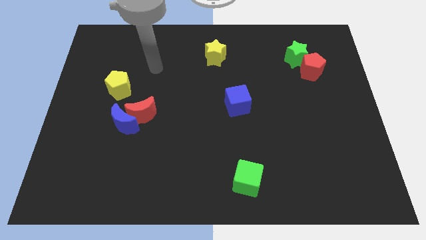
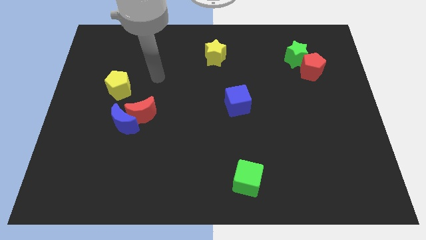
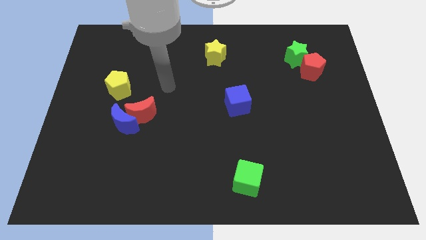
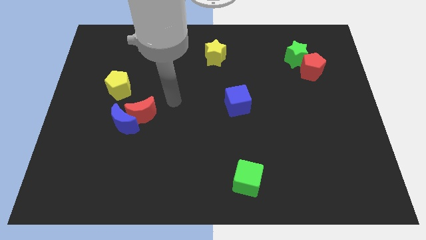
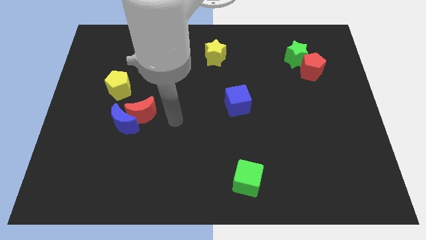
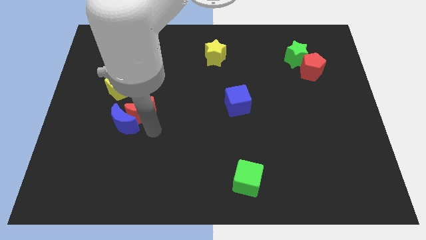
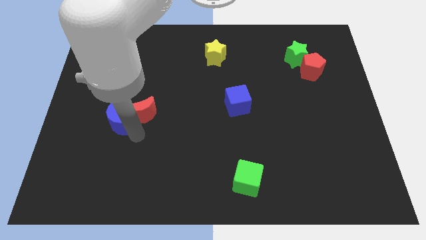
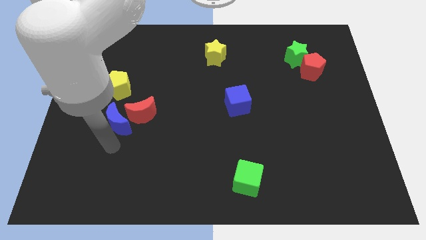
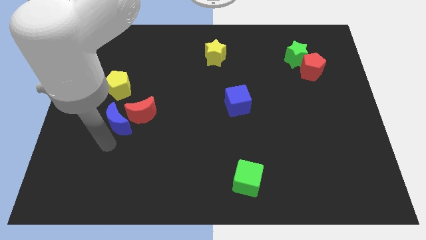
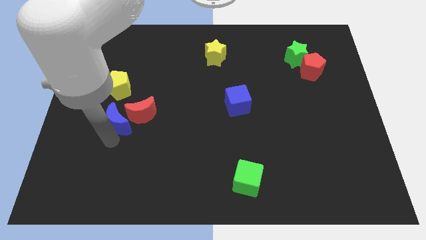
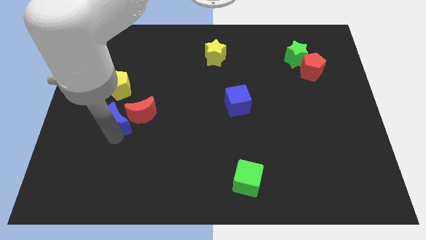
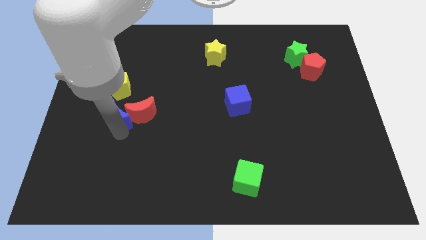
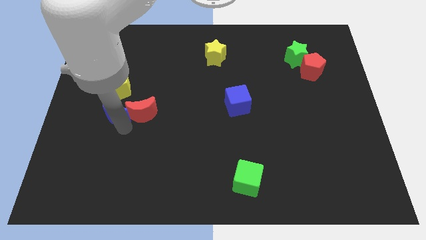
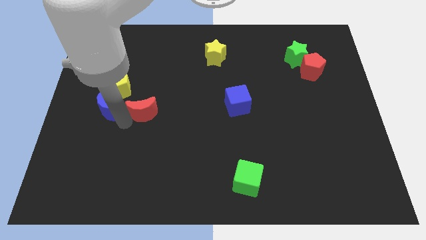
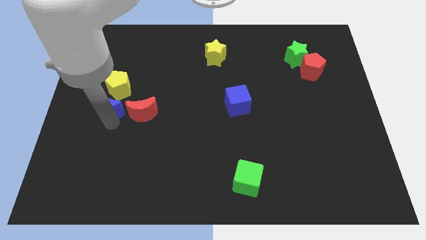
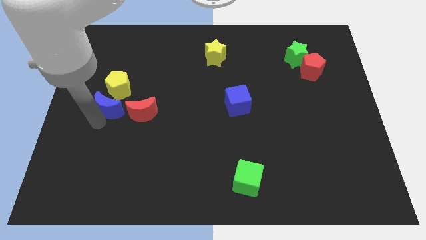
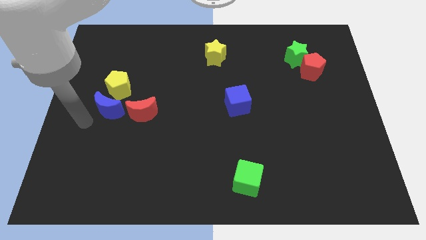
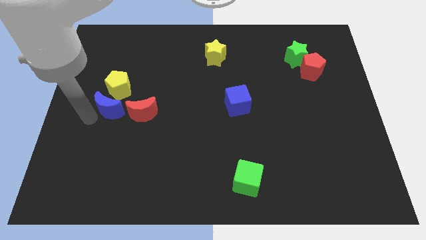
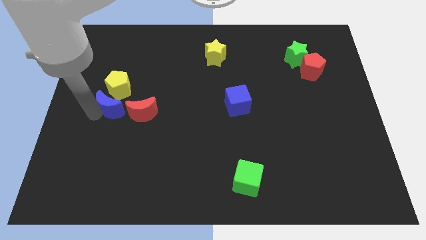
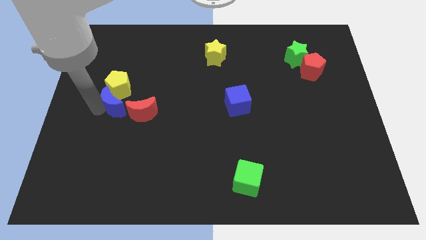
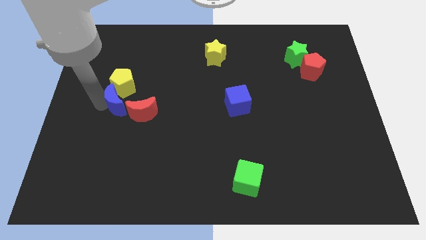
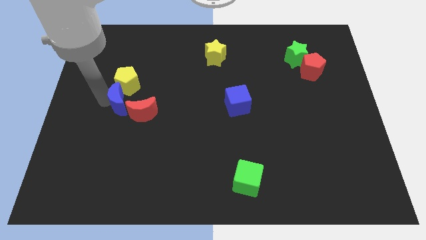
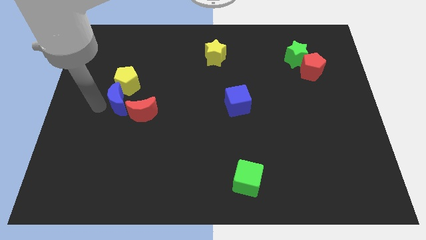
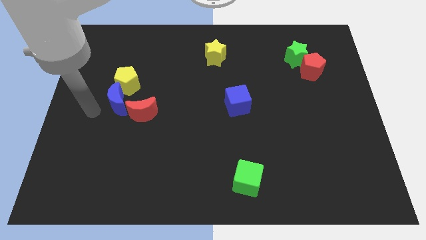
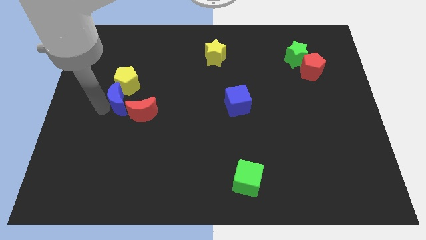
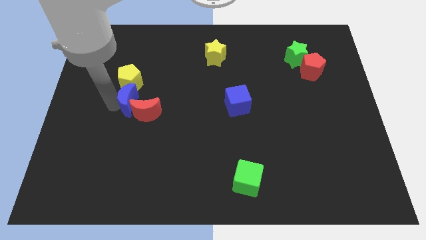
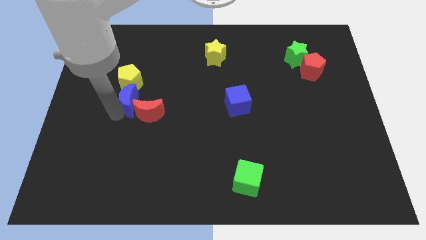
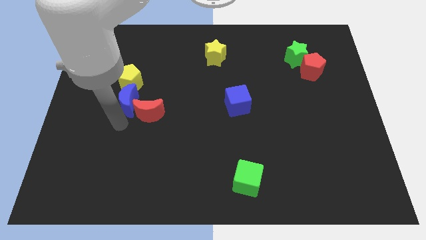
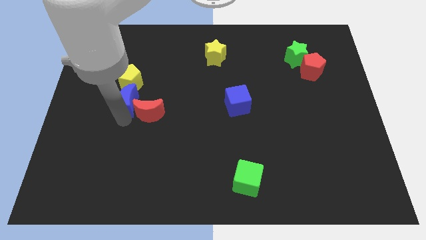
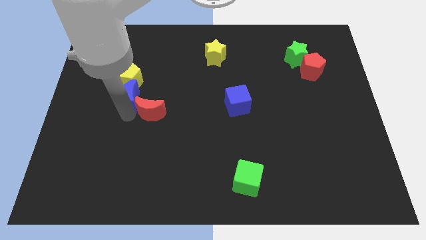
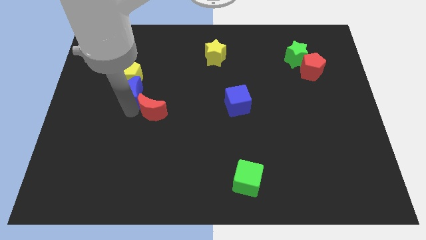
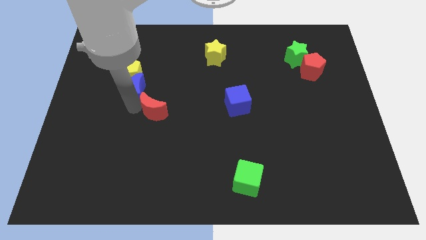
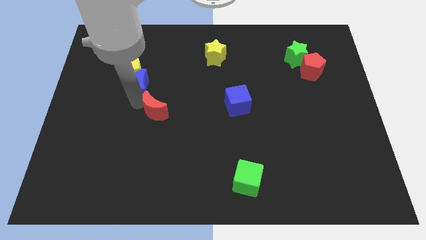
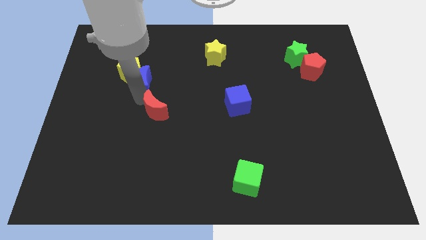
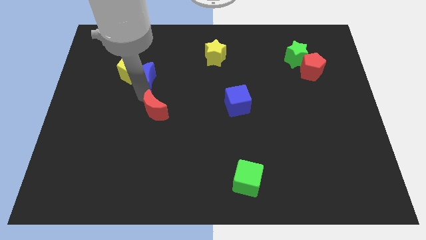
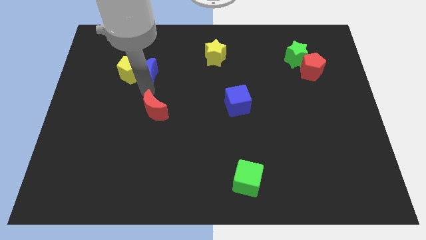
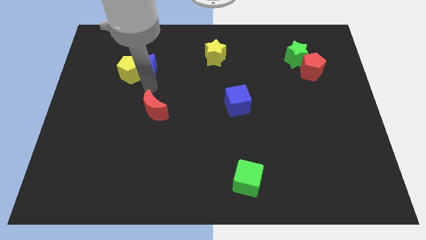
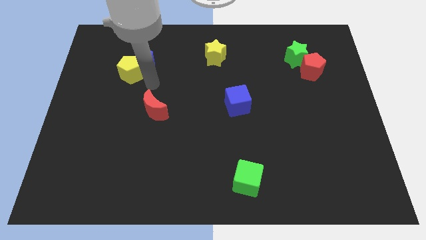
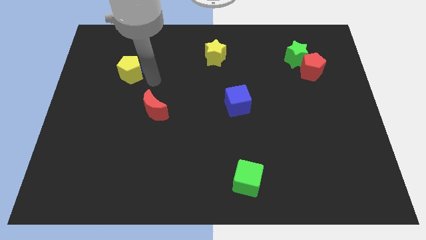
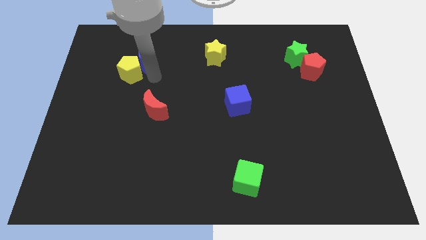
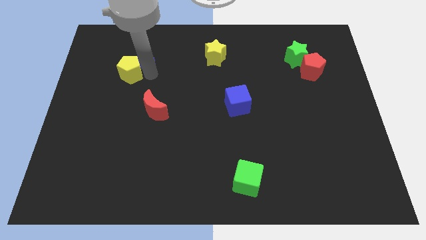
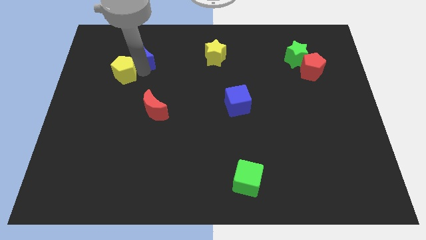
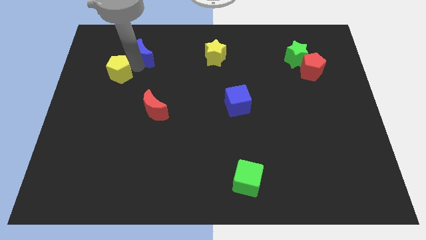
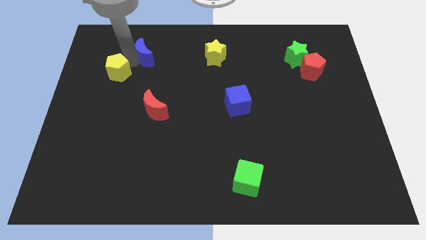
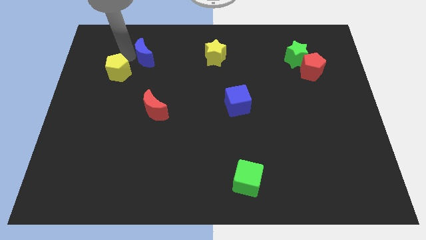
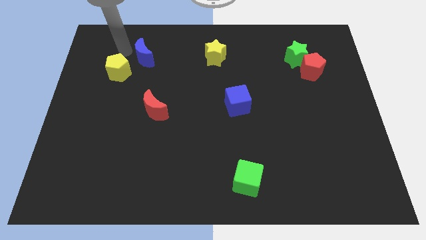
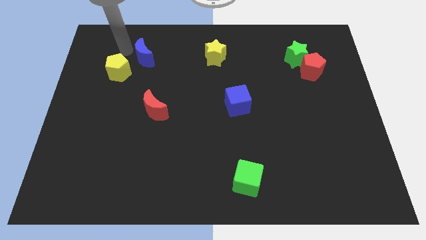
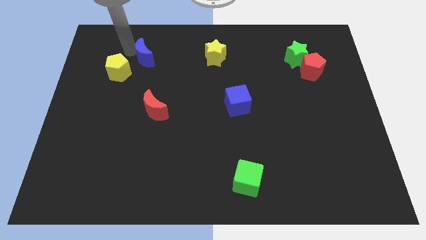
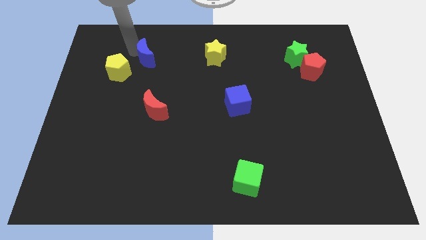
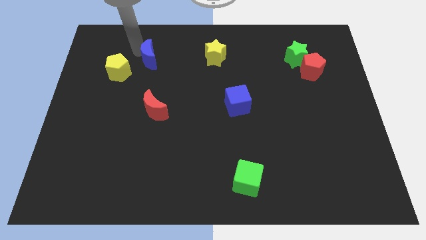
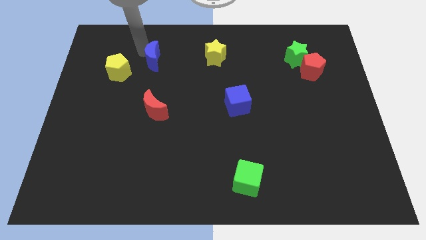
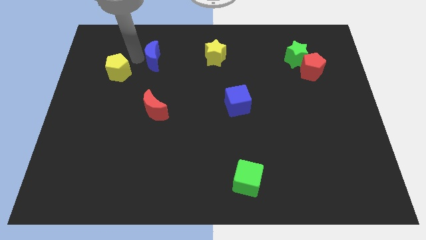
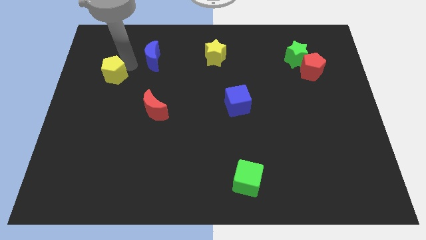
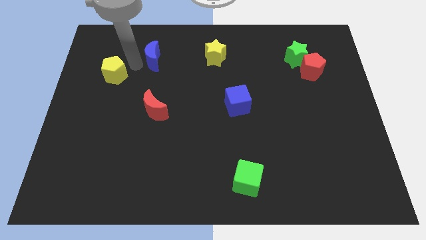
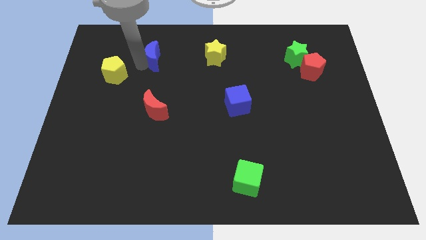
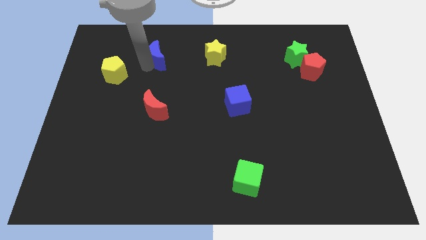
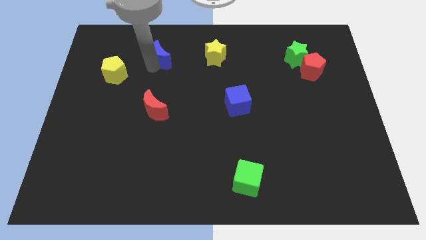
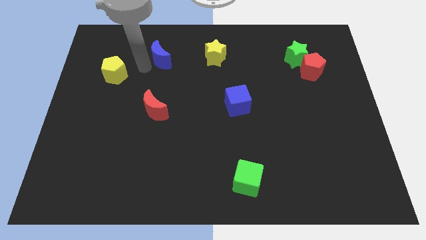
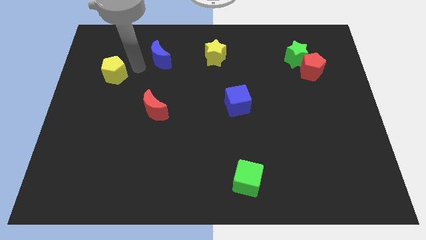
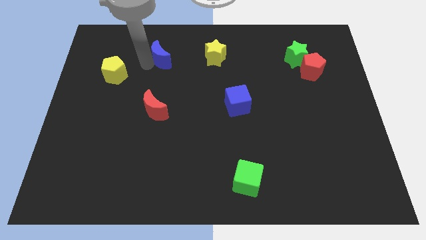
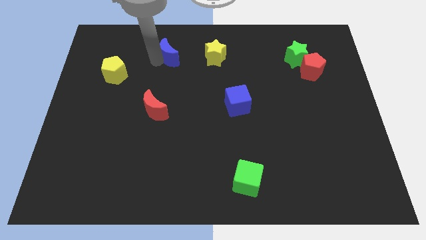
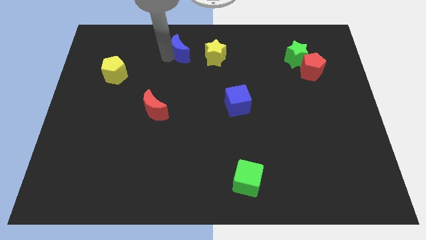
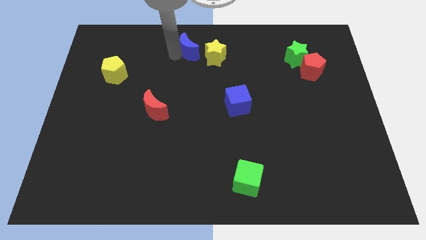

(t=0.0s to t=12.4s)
move the blue moon to the top
